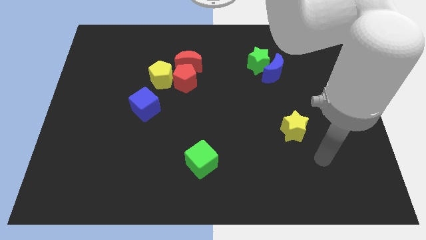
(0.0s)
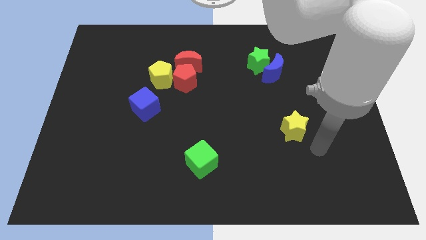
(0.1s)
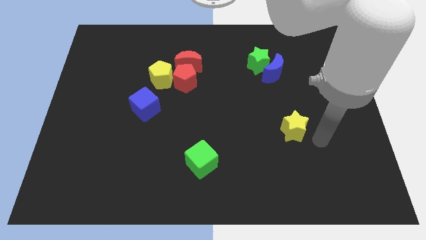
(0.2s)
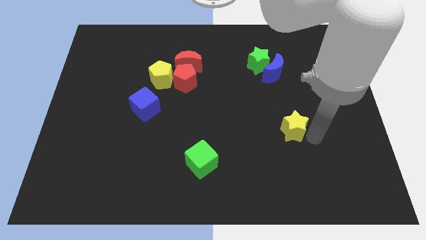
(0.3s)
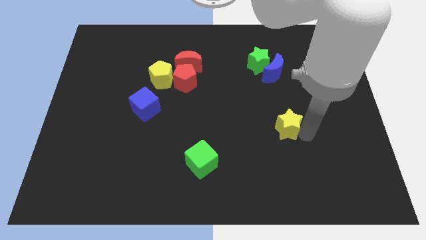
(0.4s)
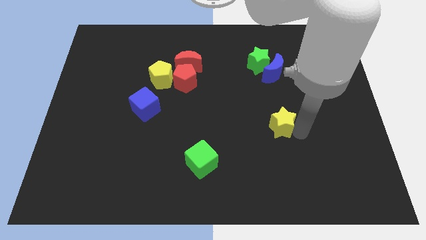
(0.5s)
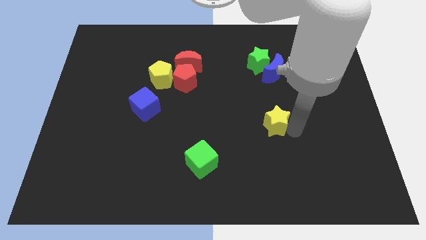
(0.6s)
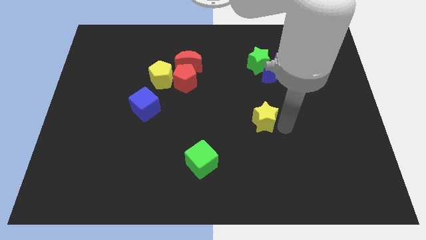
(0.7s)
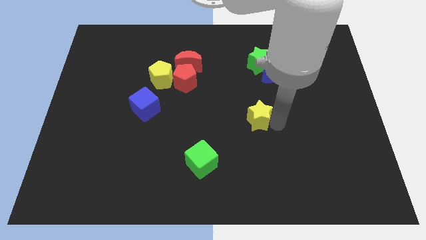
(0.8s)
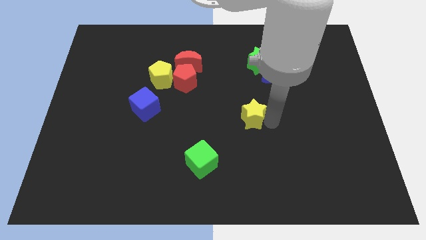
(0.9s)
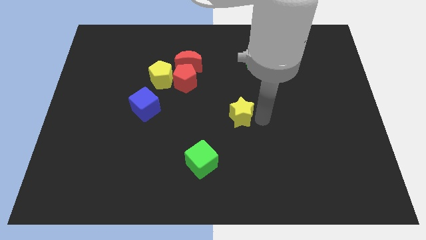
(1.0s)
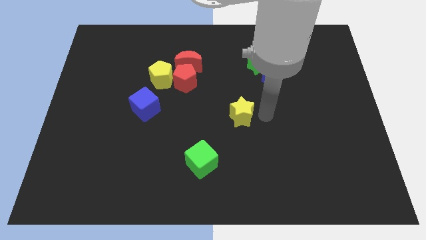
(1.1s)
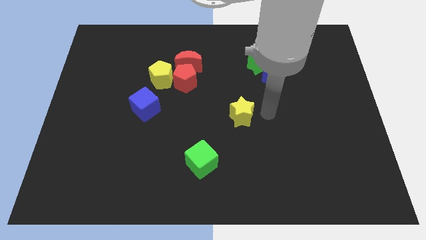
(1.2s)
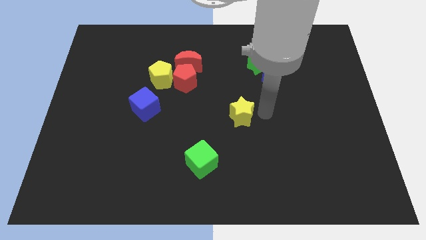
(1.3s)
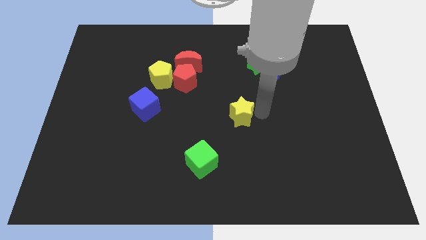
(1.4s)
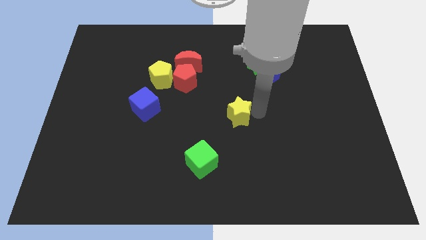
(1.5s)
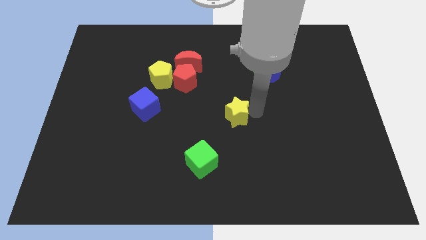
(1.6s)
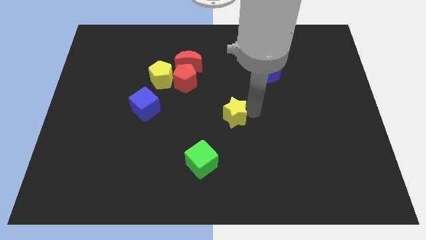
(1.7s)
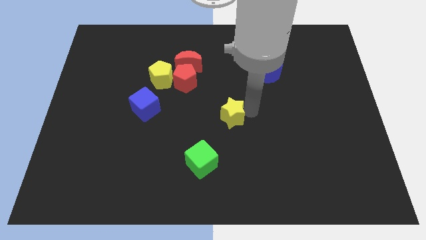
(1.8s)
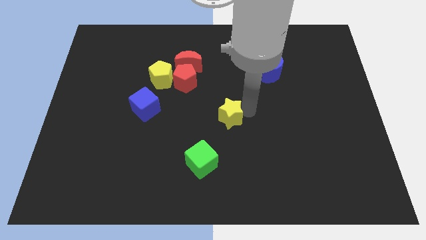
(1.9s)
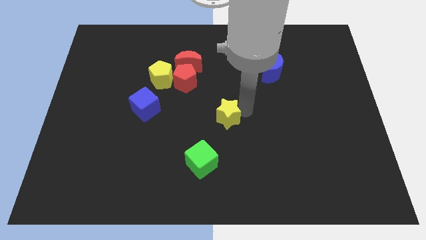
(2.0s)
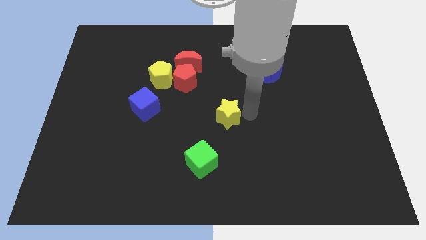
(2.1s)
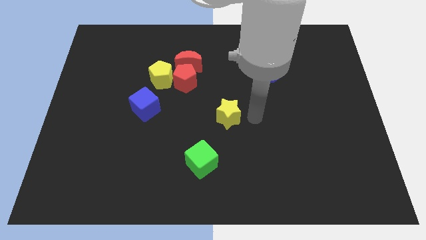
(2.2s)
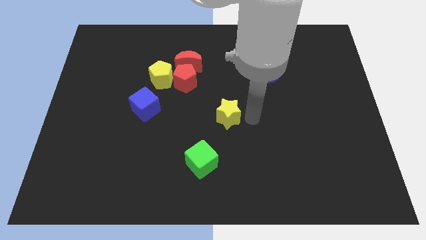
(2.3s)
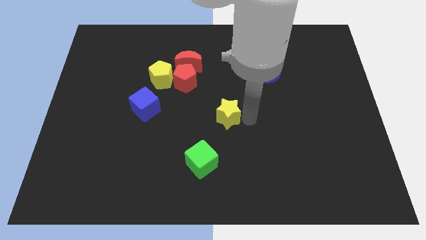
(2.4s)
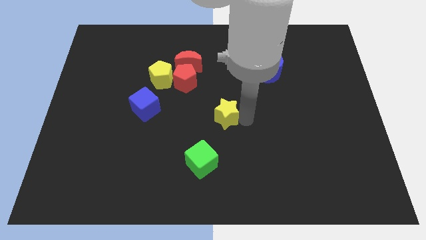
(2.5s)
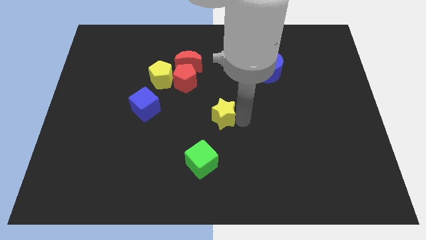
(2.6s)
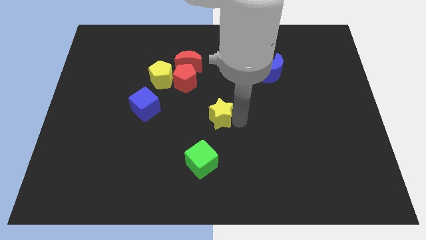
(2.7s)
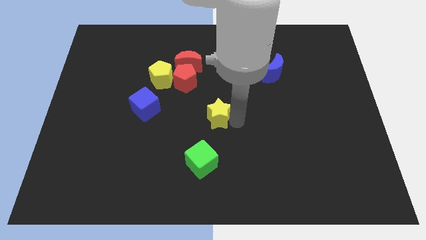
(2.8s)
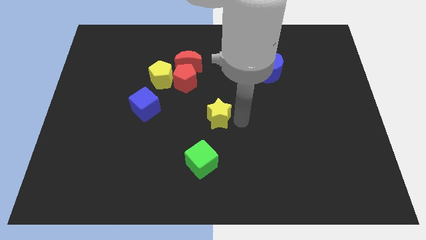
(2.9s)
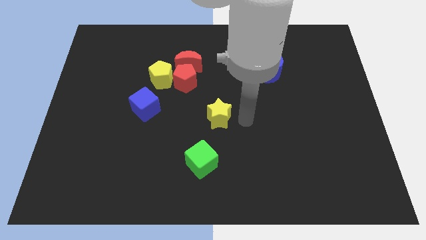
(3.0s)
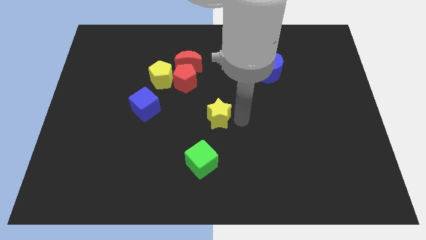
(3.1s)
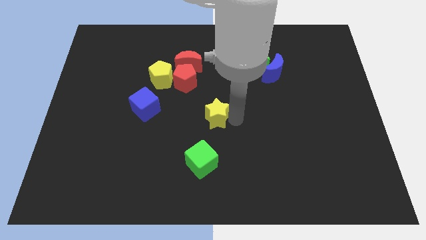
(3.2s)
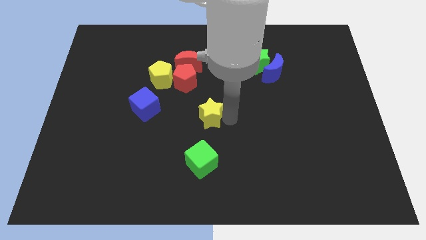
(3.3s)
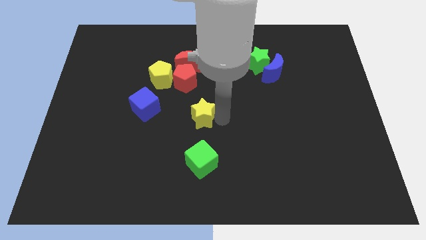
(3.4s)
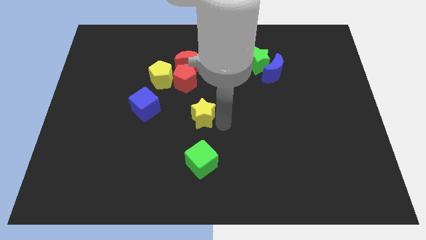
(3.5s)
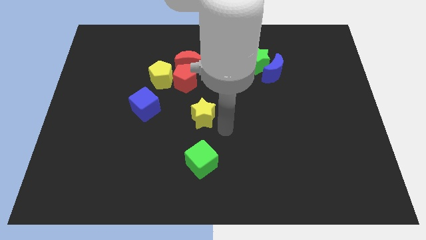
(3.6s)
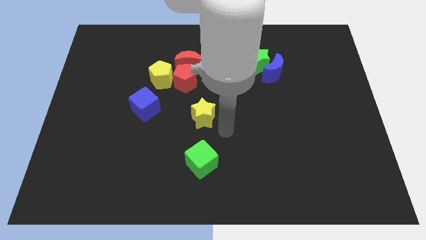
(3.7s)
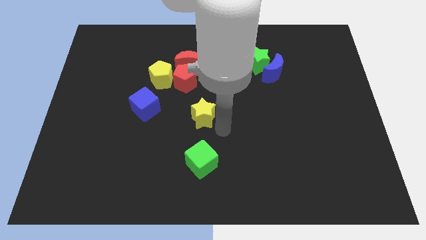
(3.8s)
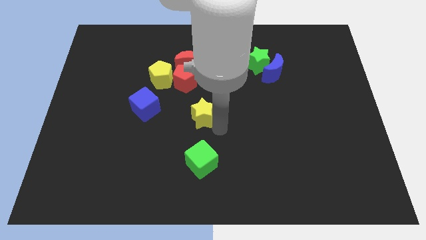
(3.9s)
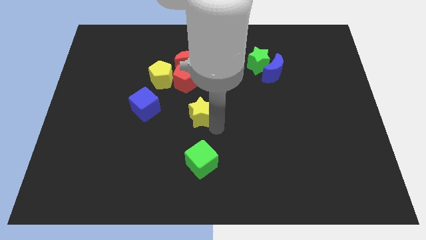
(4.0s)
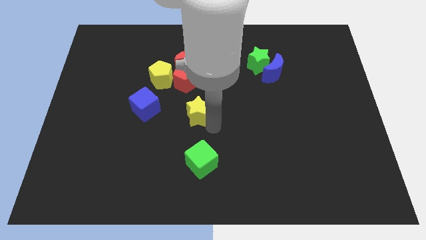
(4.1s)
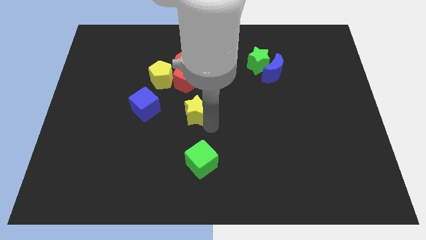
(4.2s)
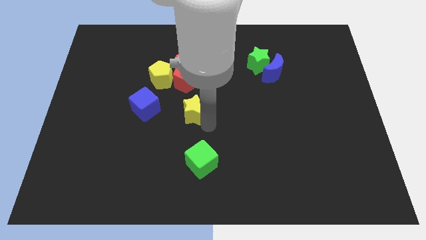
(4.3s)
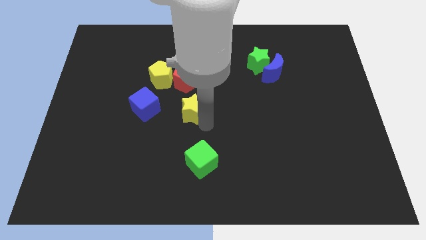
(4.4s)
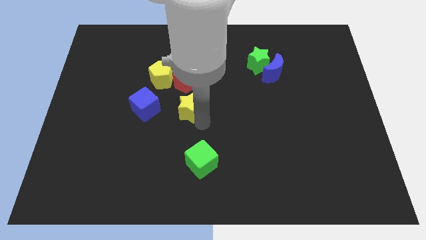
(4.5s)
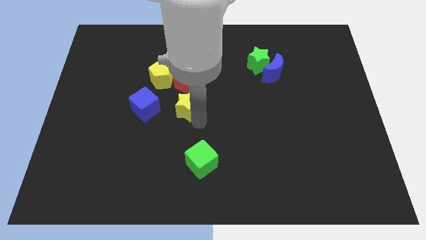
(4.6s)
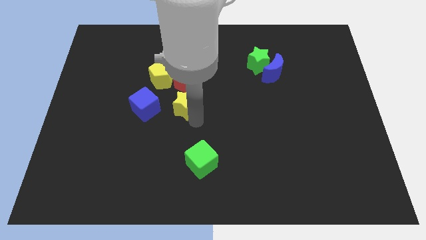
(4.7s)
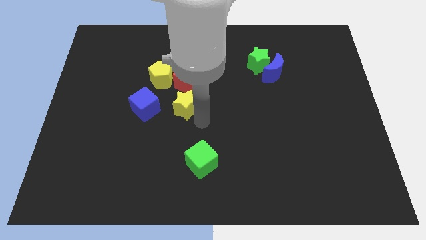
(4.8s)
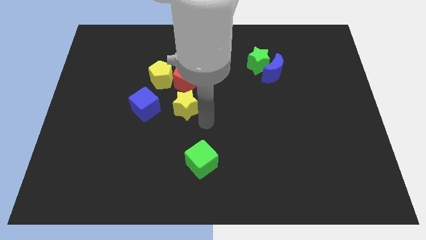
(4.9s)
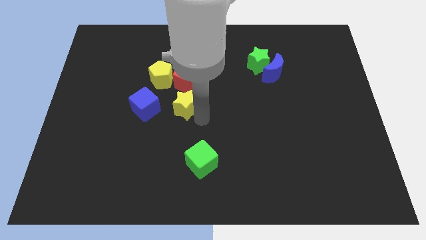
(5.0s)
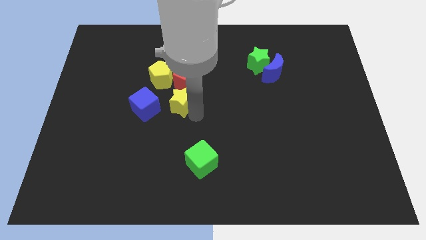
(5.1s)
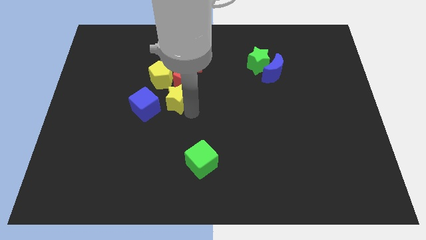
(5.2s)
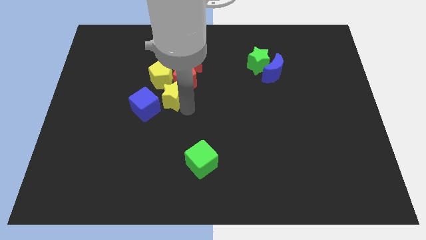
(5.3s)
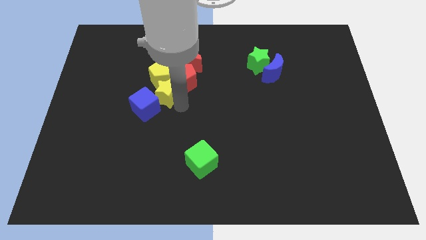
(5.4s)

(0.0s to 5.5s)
put the yellow star next to the yellow pentagon

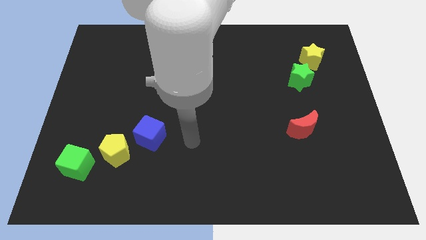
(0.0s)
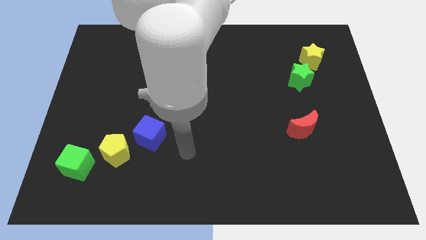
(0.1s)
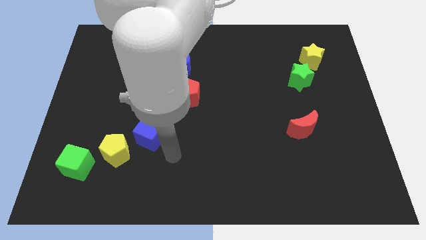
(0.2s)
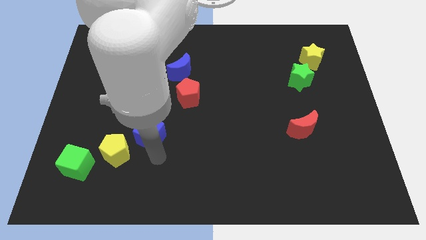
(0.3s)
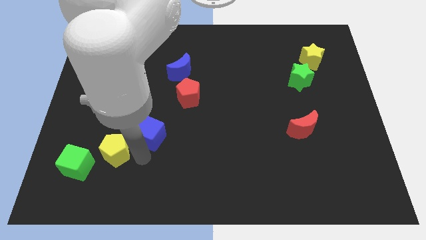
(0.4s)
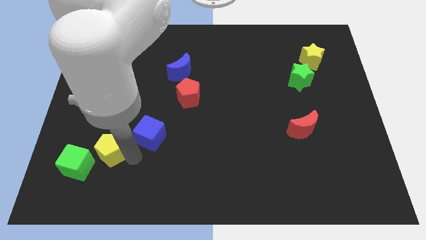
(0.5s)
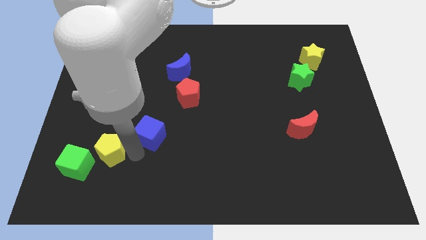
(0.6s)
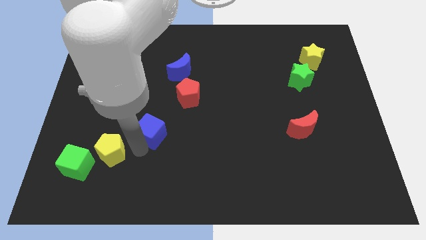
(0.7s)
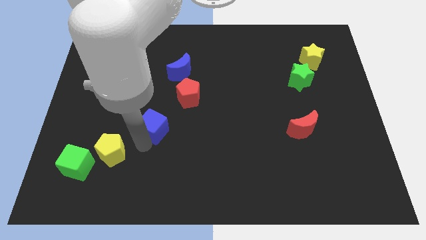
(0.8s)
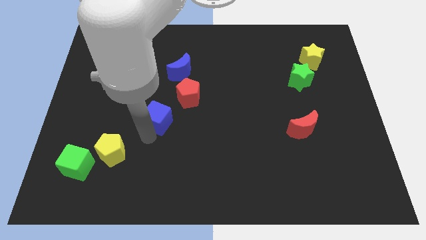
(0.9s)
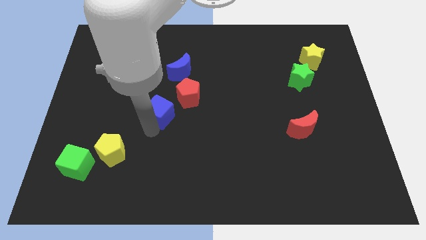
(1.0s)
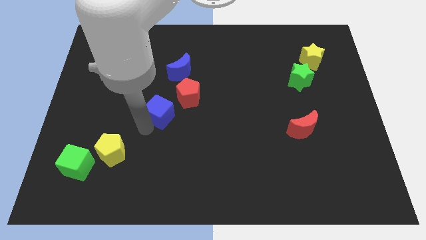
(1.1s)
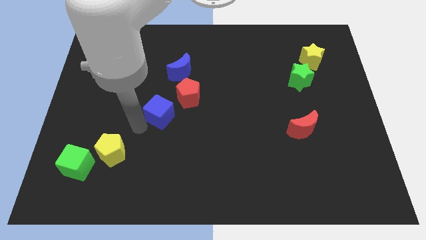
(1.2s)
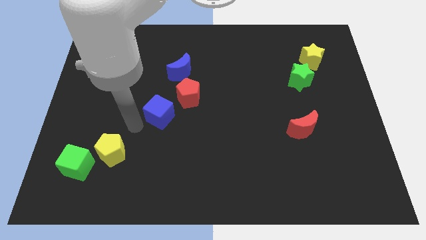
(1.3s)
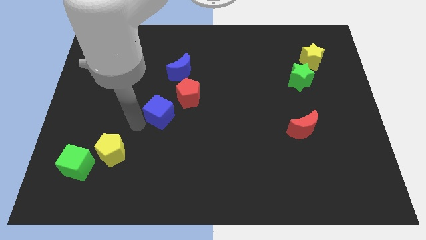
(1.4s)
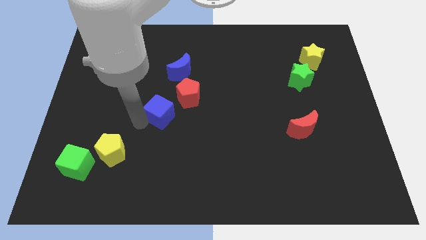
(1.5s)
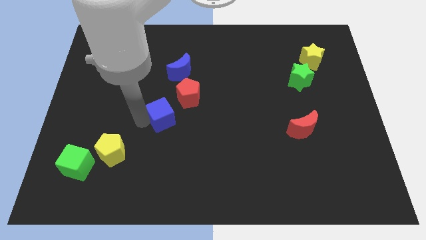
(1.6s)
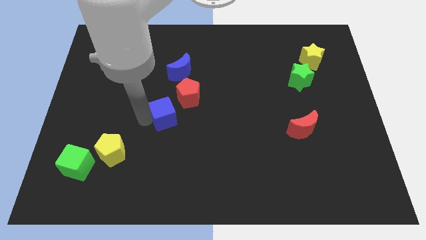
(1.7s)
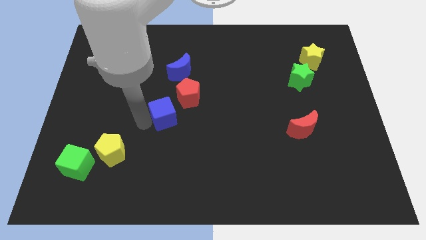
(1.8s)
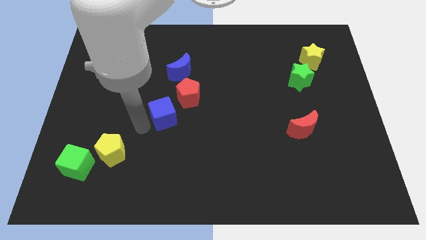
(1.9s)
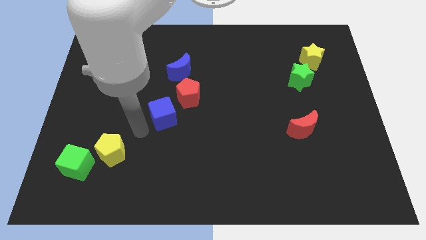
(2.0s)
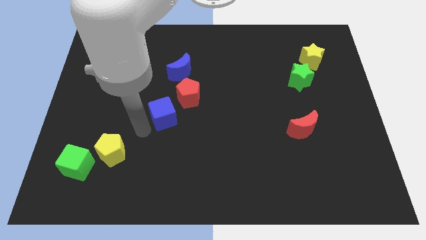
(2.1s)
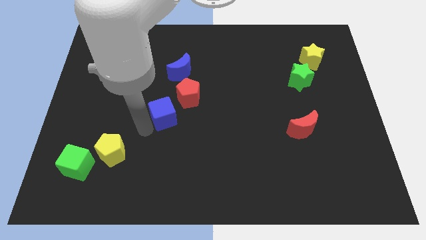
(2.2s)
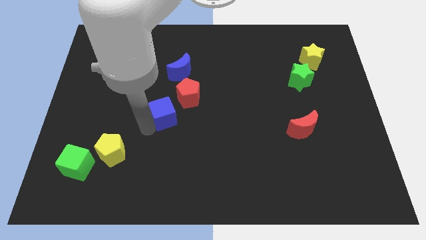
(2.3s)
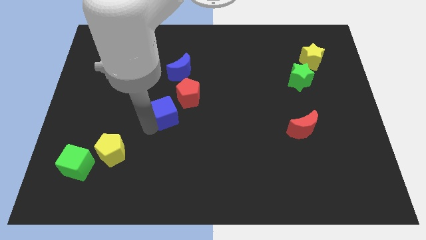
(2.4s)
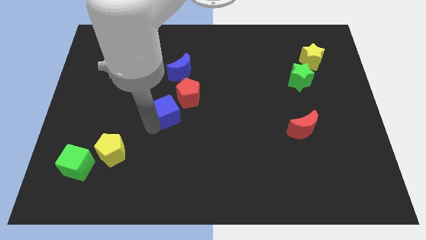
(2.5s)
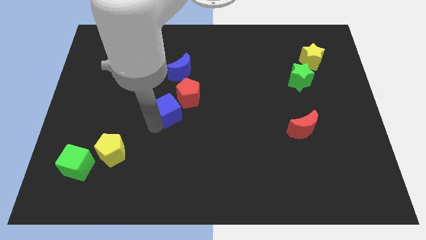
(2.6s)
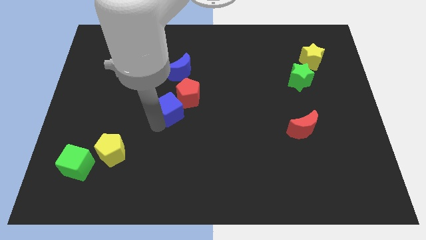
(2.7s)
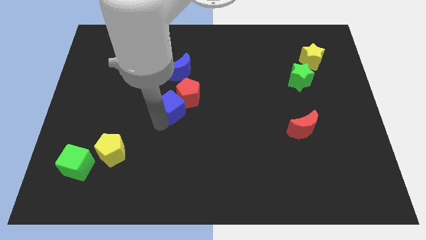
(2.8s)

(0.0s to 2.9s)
push the blue cube to the red pentagon
